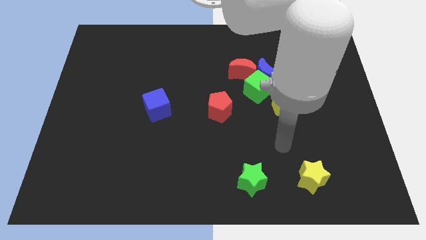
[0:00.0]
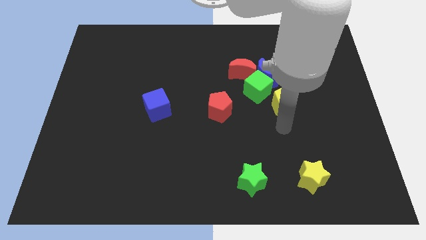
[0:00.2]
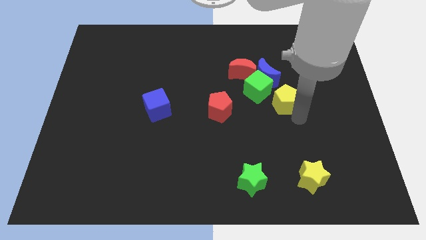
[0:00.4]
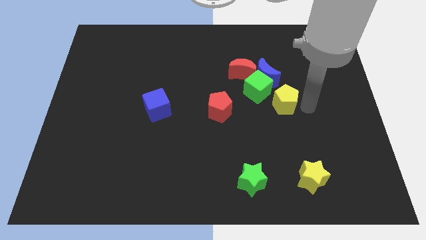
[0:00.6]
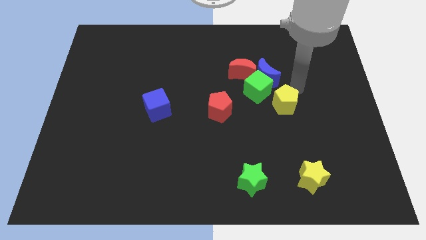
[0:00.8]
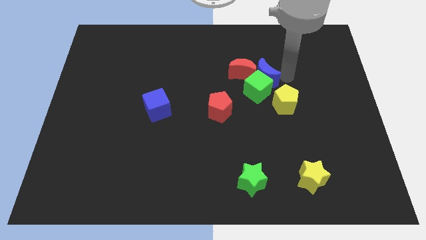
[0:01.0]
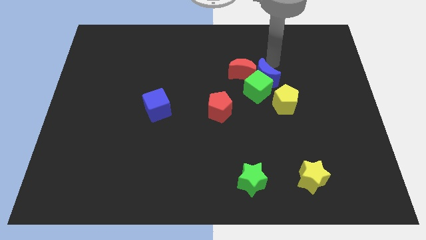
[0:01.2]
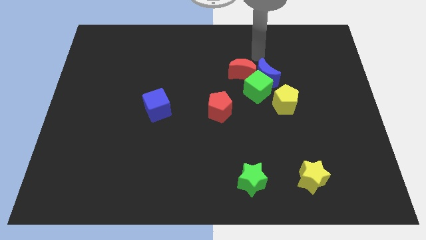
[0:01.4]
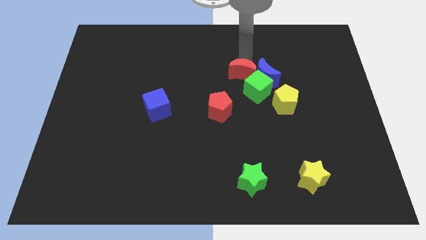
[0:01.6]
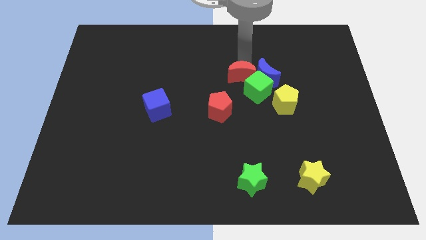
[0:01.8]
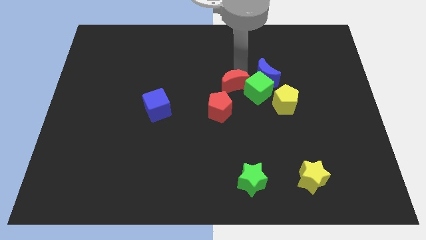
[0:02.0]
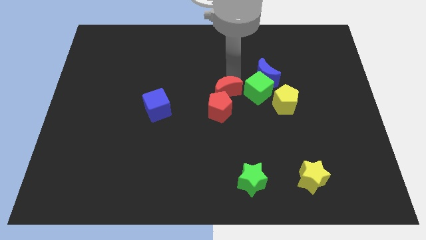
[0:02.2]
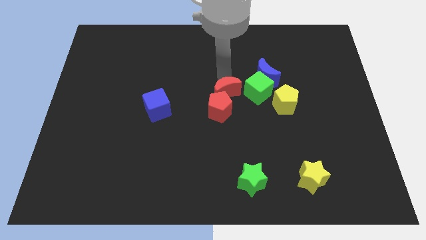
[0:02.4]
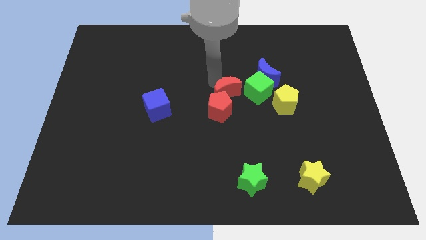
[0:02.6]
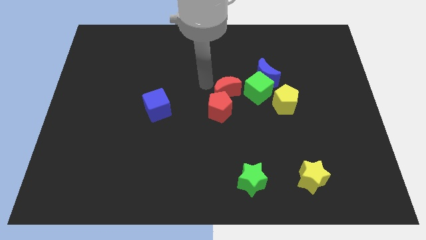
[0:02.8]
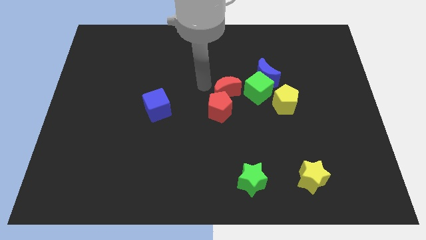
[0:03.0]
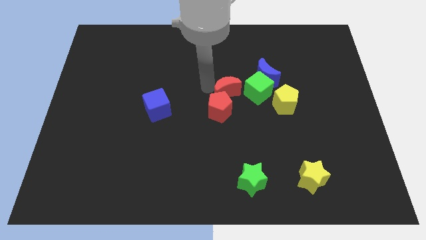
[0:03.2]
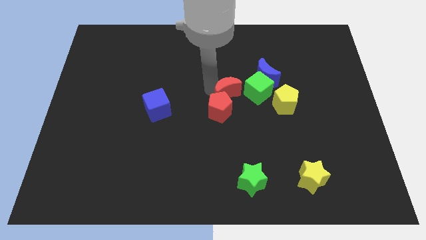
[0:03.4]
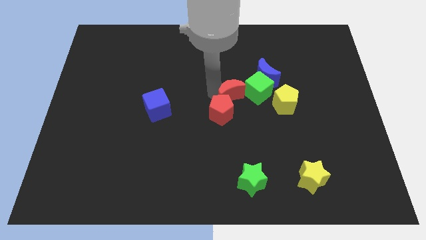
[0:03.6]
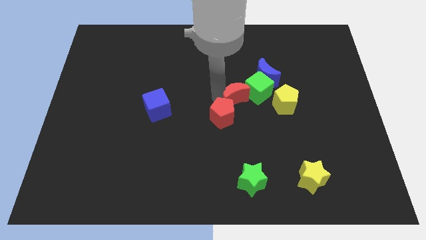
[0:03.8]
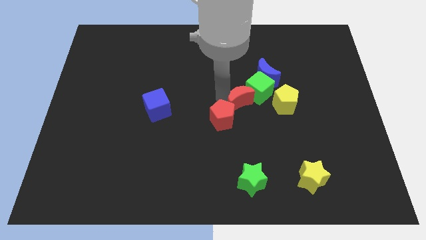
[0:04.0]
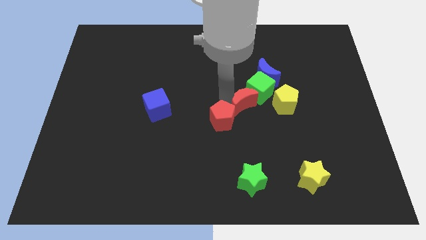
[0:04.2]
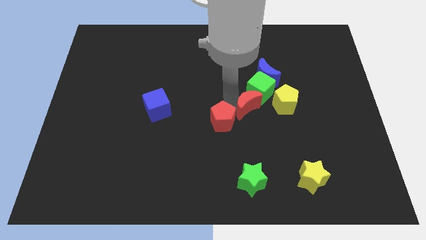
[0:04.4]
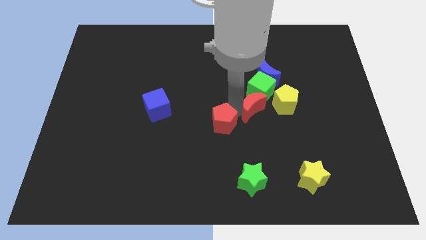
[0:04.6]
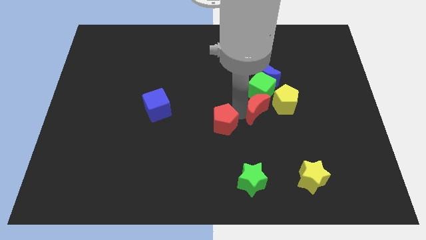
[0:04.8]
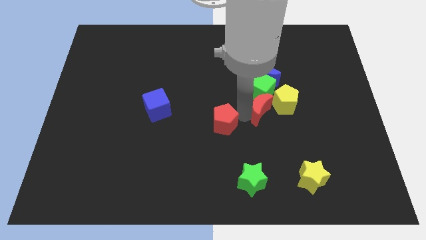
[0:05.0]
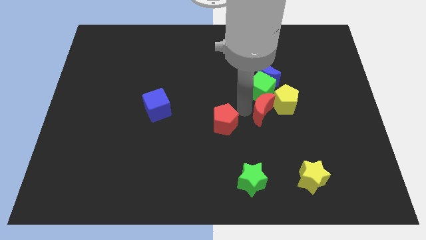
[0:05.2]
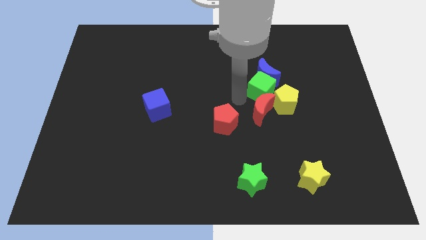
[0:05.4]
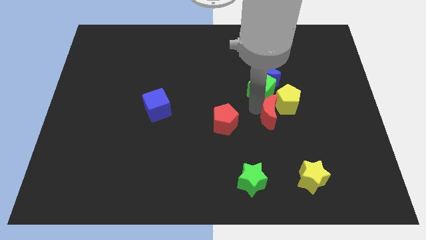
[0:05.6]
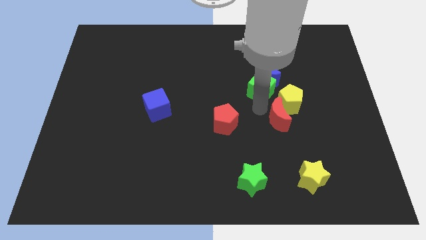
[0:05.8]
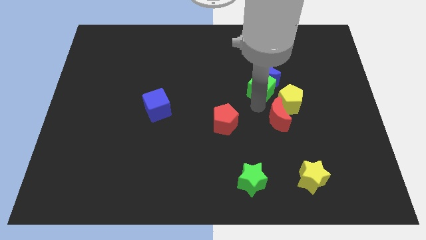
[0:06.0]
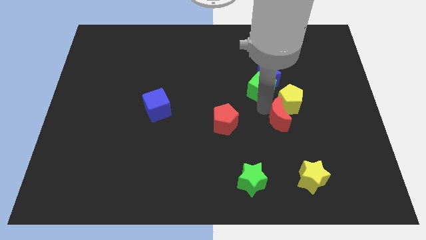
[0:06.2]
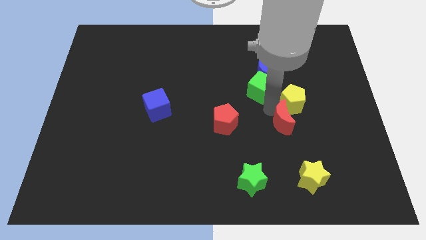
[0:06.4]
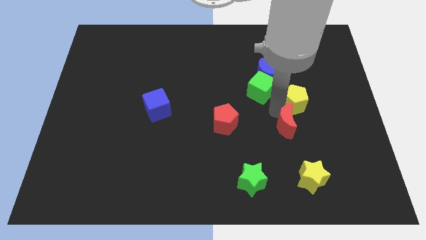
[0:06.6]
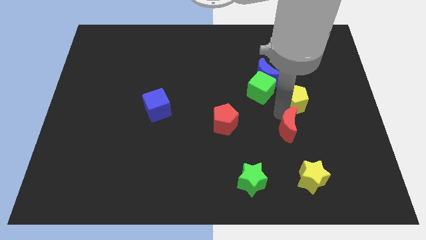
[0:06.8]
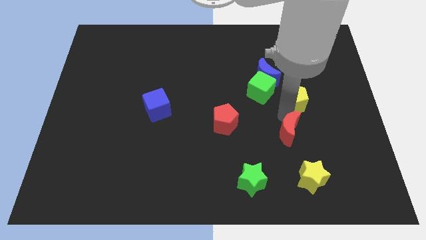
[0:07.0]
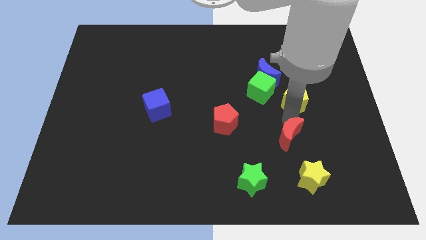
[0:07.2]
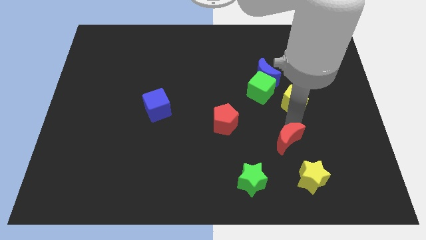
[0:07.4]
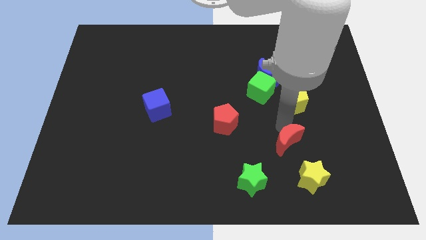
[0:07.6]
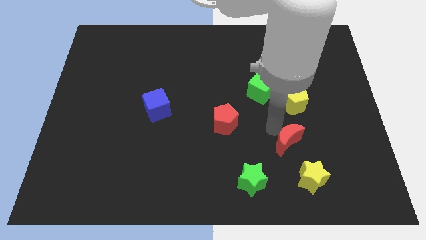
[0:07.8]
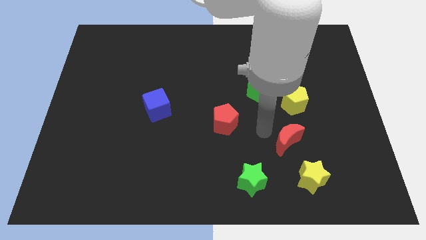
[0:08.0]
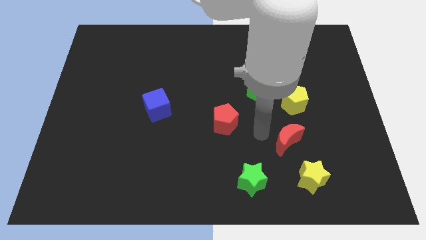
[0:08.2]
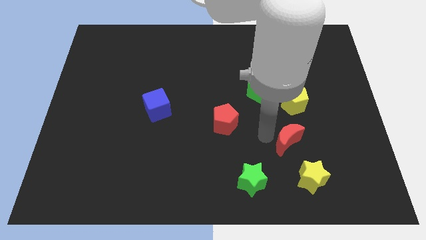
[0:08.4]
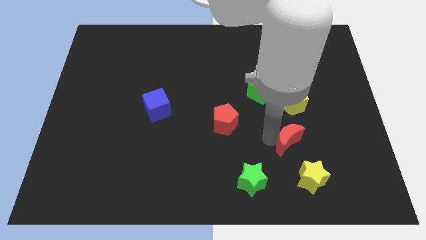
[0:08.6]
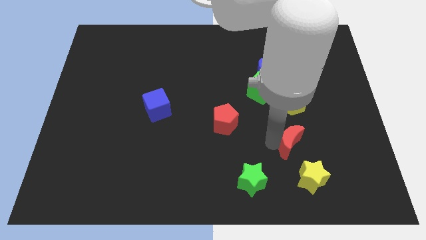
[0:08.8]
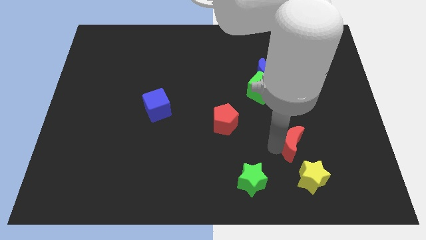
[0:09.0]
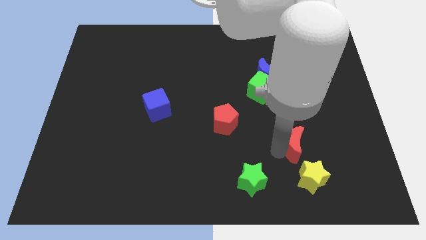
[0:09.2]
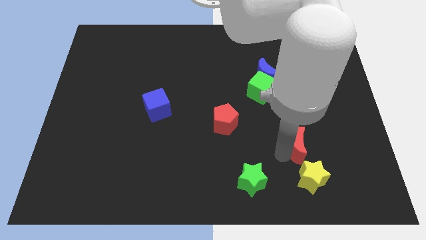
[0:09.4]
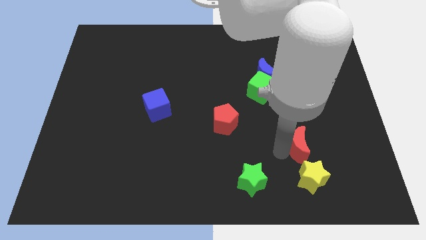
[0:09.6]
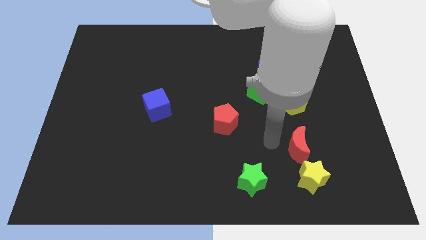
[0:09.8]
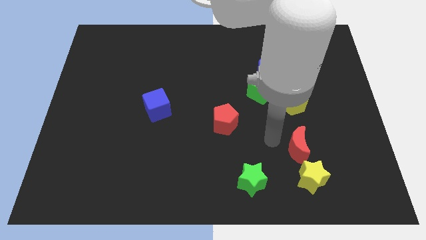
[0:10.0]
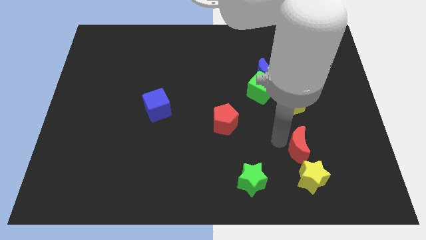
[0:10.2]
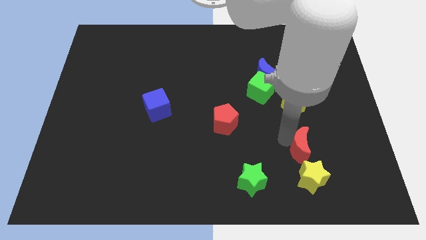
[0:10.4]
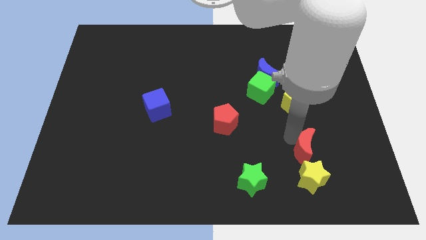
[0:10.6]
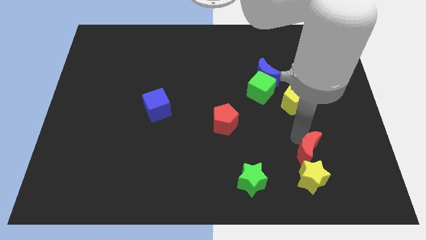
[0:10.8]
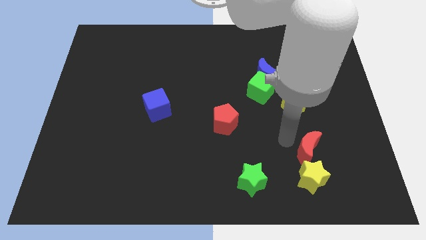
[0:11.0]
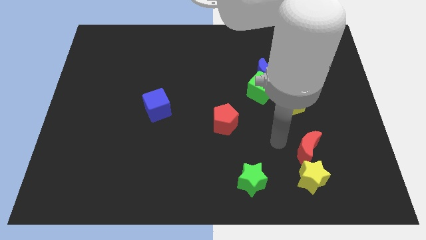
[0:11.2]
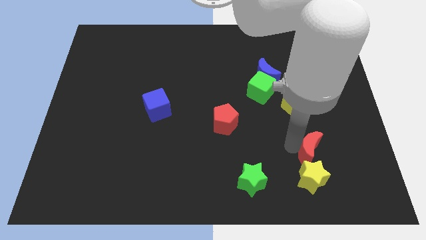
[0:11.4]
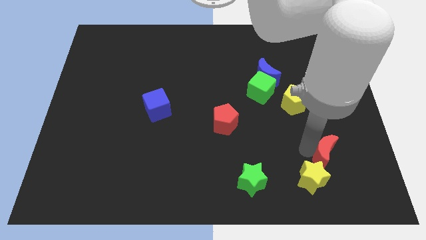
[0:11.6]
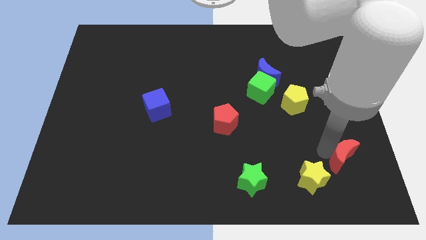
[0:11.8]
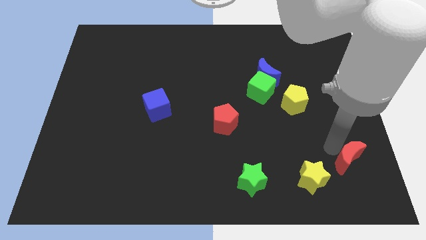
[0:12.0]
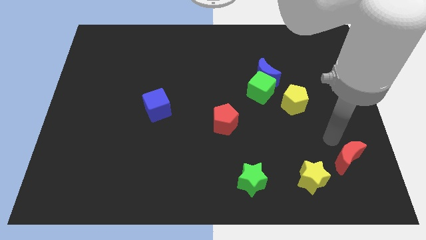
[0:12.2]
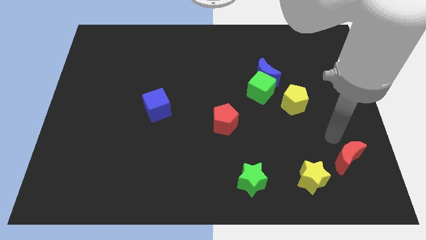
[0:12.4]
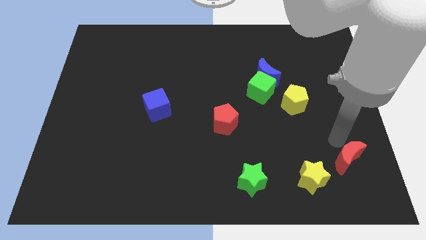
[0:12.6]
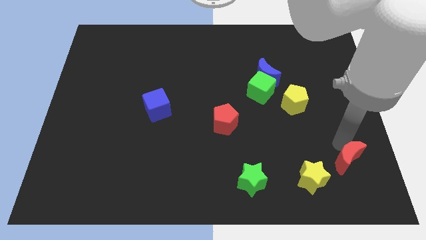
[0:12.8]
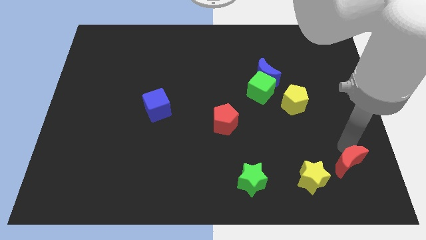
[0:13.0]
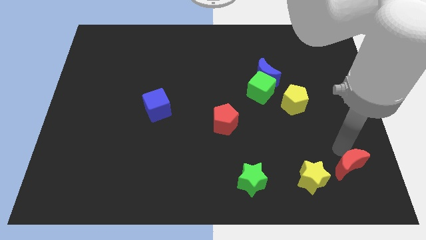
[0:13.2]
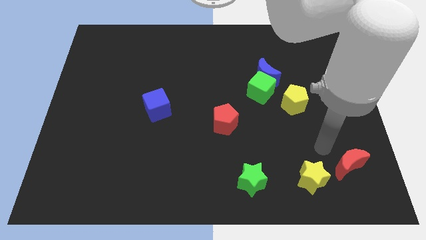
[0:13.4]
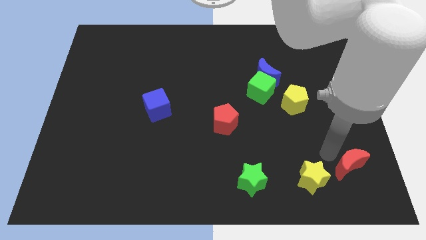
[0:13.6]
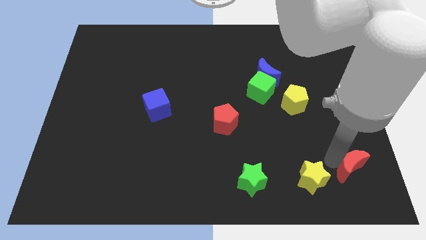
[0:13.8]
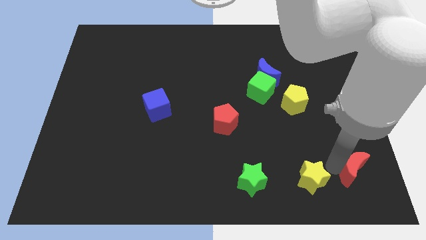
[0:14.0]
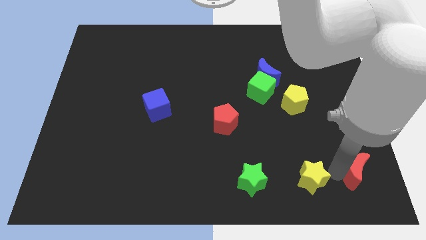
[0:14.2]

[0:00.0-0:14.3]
move the red moon to the bottom right of the board
